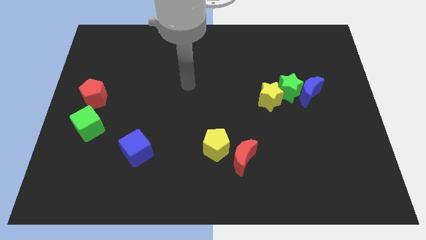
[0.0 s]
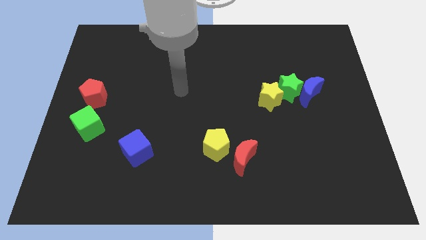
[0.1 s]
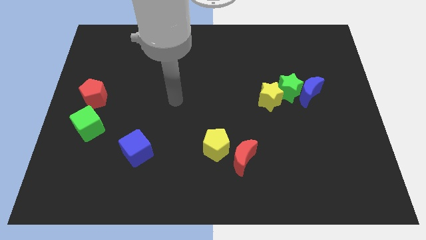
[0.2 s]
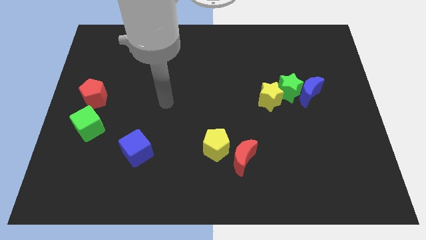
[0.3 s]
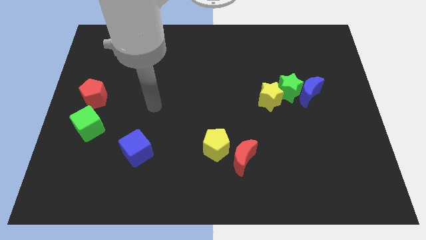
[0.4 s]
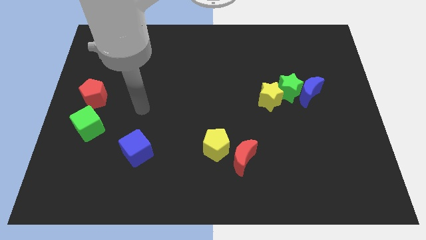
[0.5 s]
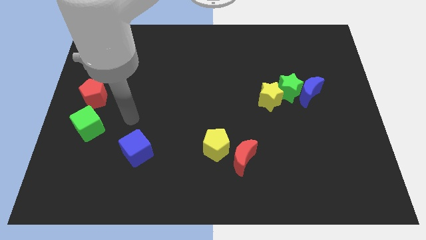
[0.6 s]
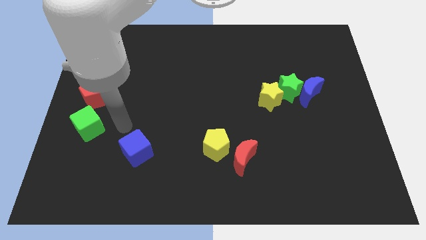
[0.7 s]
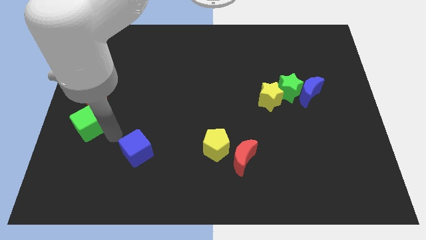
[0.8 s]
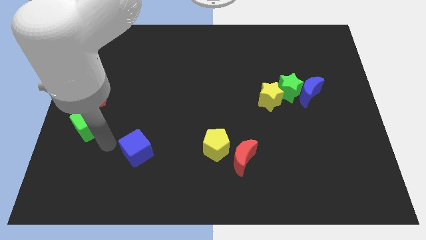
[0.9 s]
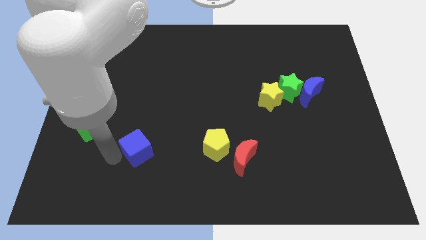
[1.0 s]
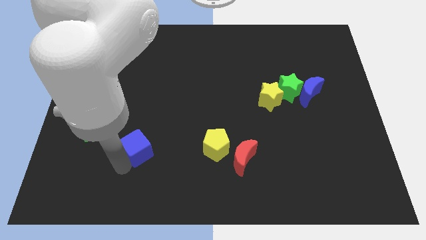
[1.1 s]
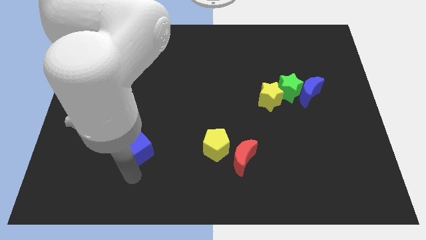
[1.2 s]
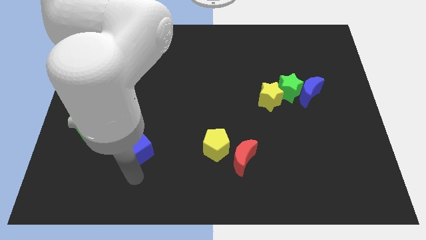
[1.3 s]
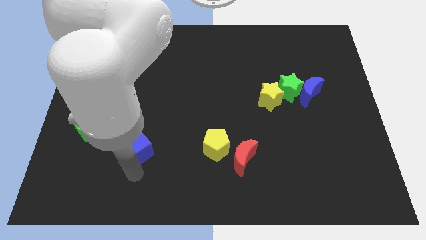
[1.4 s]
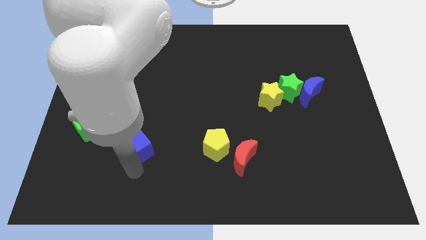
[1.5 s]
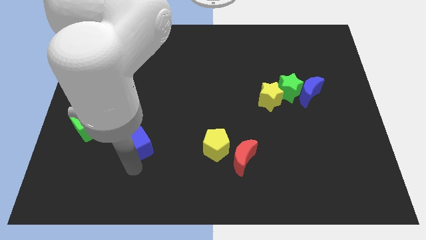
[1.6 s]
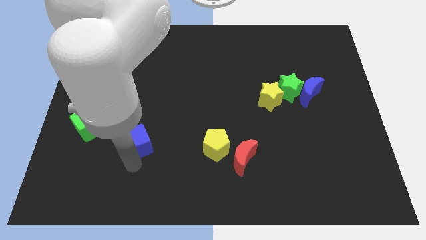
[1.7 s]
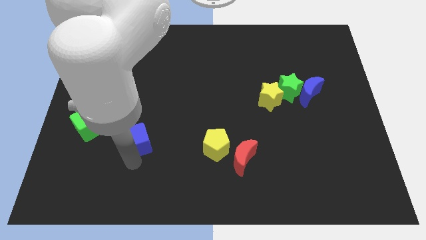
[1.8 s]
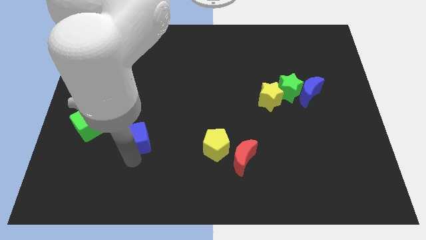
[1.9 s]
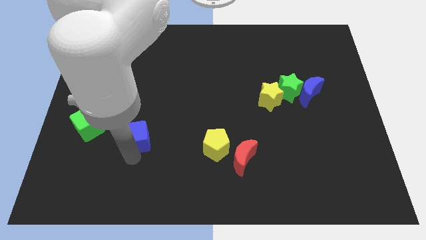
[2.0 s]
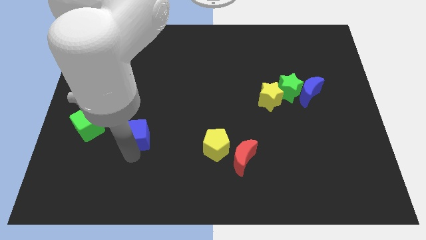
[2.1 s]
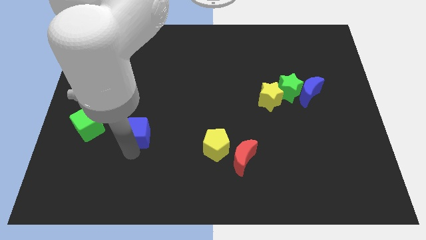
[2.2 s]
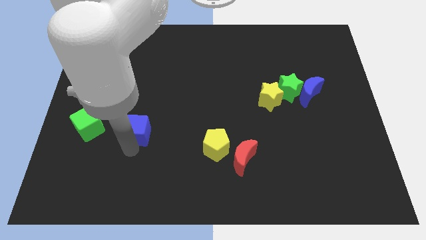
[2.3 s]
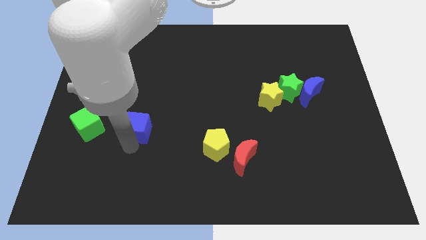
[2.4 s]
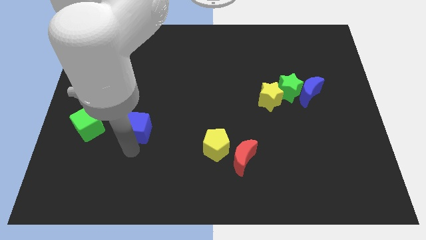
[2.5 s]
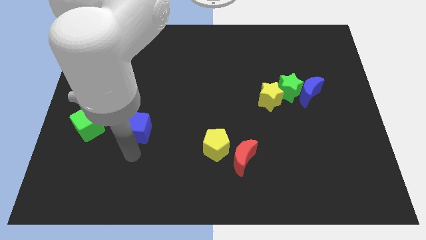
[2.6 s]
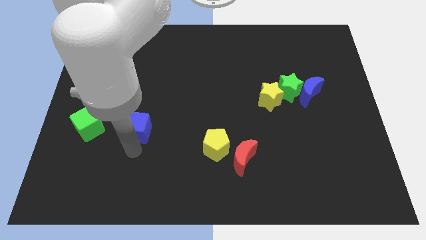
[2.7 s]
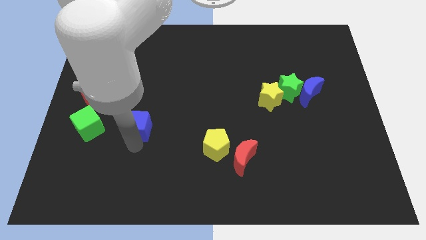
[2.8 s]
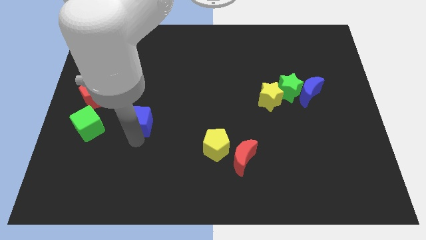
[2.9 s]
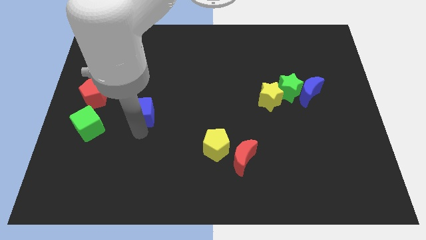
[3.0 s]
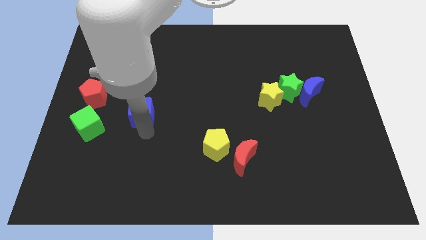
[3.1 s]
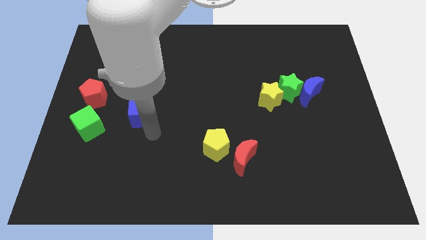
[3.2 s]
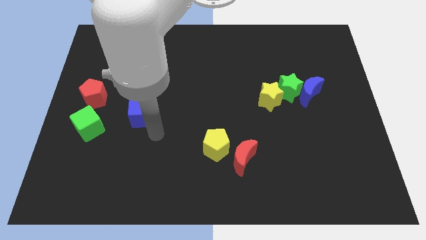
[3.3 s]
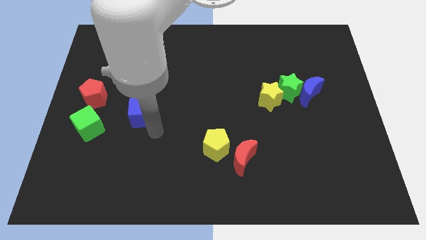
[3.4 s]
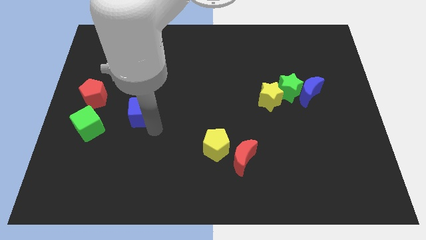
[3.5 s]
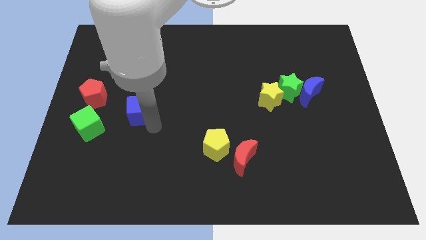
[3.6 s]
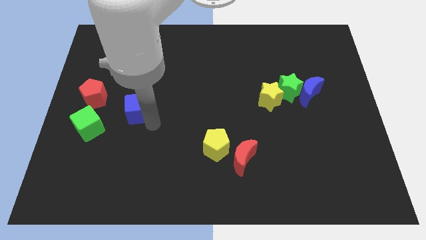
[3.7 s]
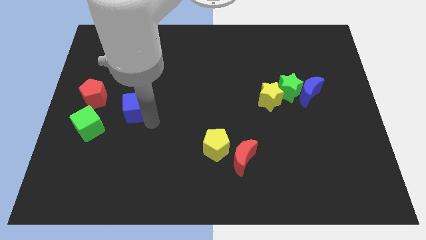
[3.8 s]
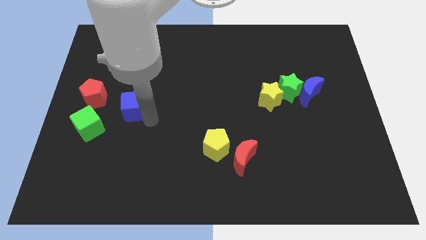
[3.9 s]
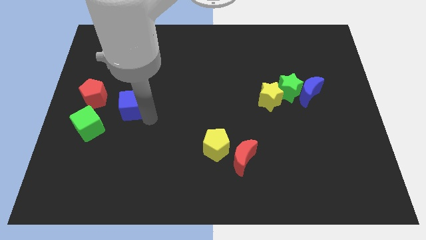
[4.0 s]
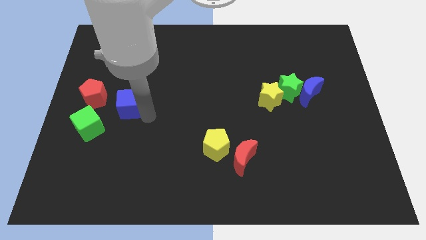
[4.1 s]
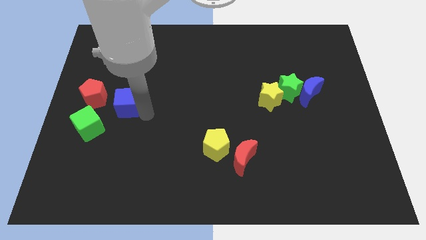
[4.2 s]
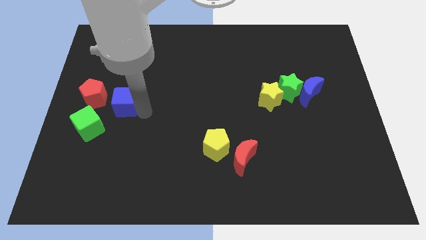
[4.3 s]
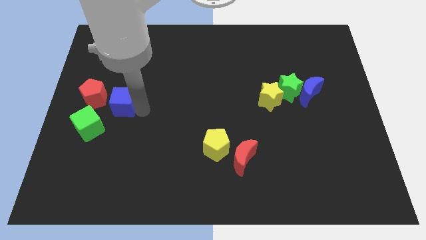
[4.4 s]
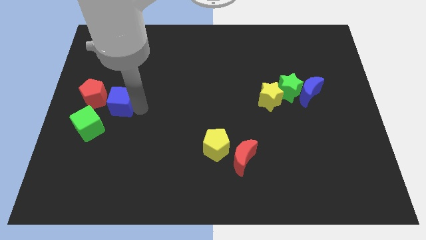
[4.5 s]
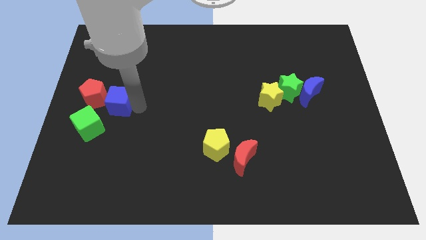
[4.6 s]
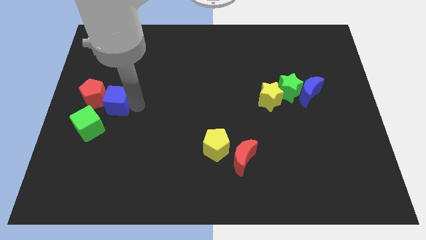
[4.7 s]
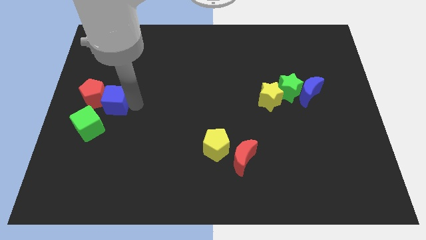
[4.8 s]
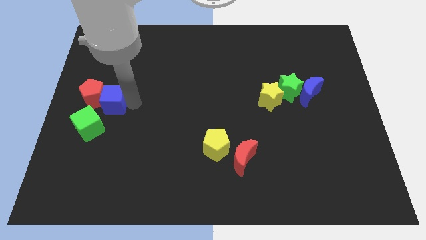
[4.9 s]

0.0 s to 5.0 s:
put the blue cube to the top of the green cube

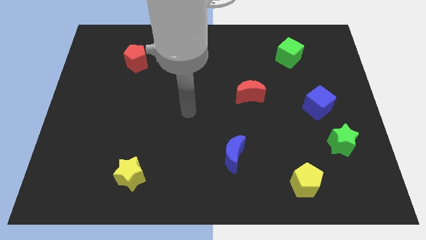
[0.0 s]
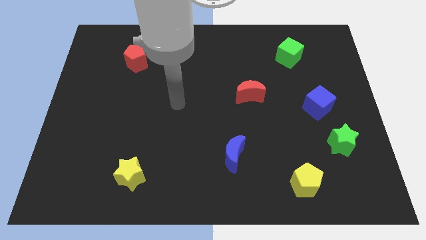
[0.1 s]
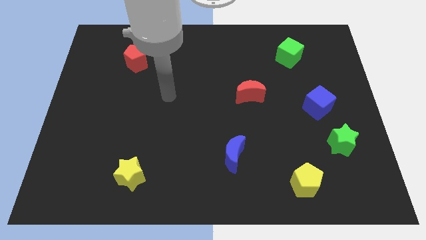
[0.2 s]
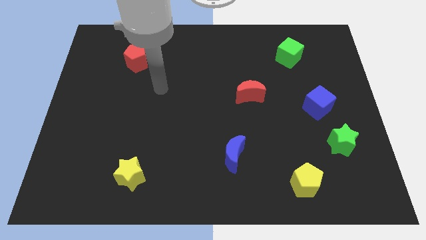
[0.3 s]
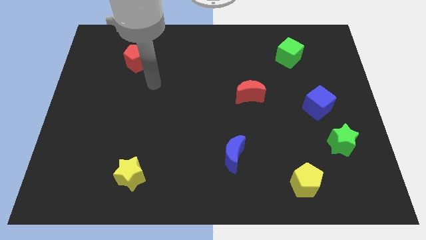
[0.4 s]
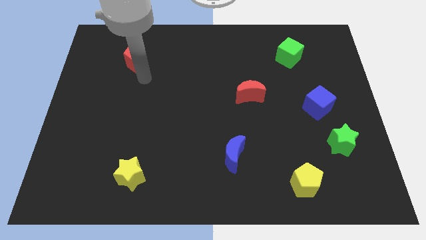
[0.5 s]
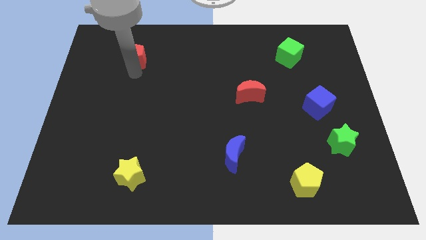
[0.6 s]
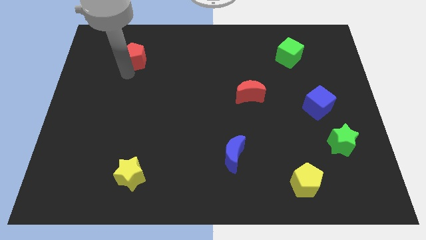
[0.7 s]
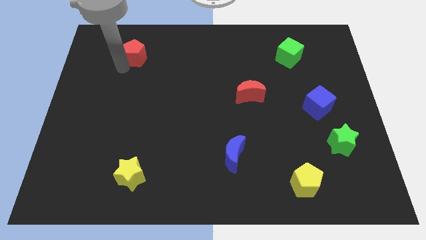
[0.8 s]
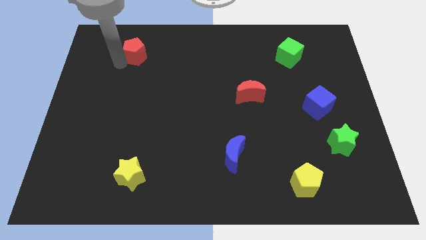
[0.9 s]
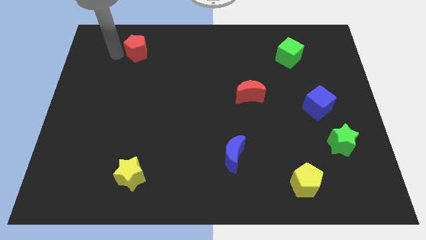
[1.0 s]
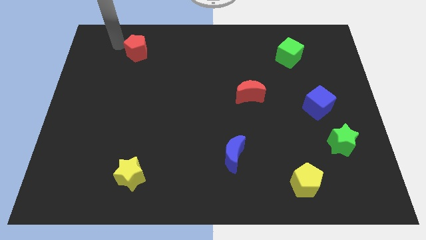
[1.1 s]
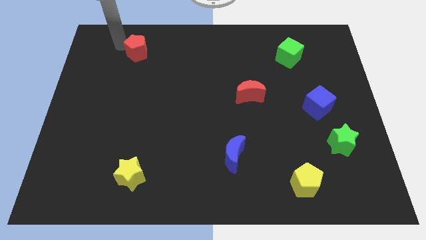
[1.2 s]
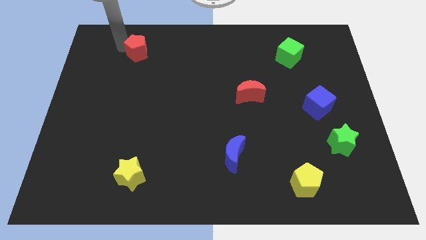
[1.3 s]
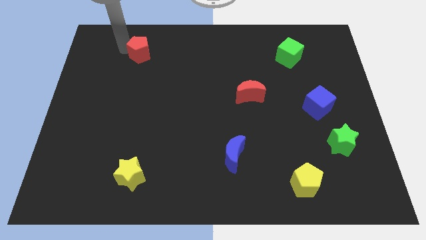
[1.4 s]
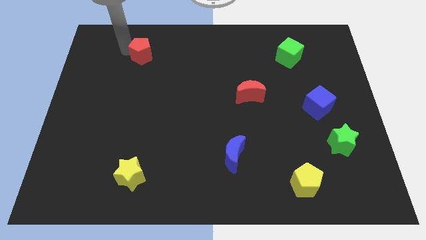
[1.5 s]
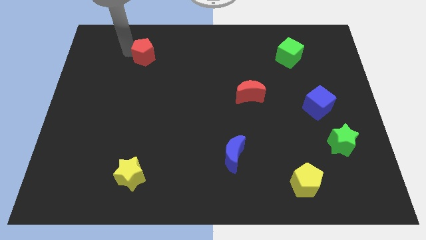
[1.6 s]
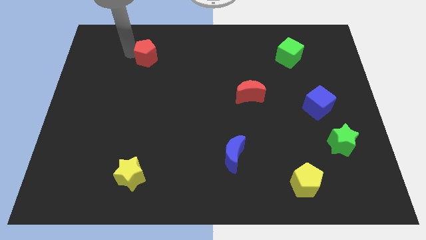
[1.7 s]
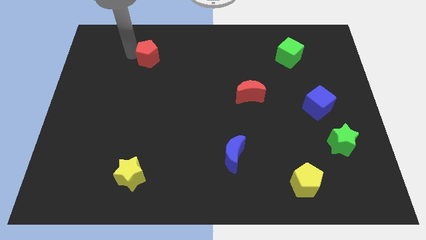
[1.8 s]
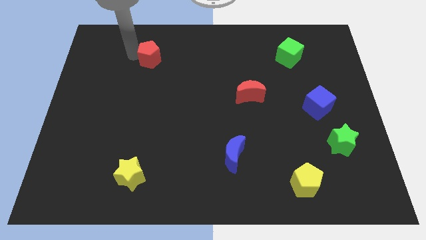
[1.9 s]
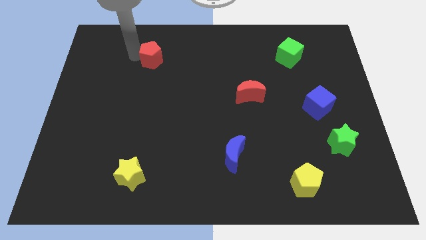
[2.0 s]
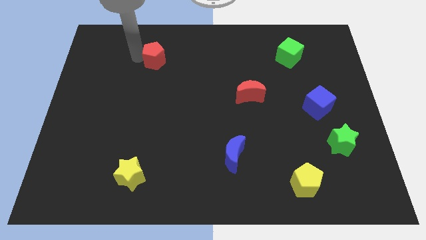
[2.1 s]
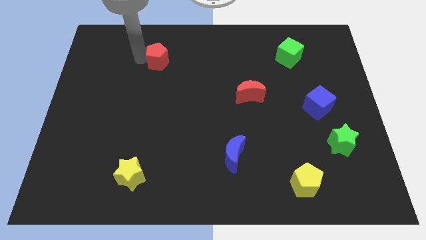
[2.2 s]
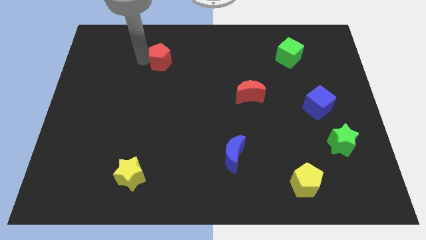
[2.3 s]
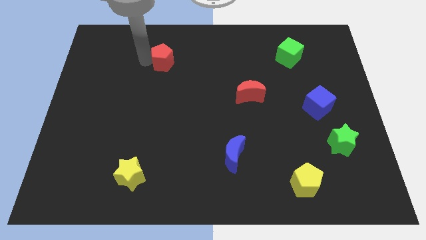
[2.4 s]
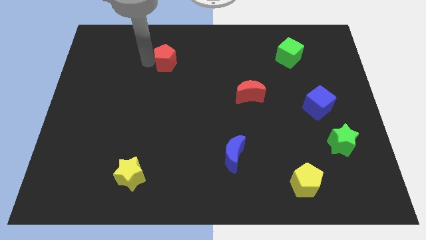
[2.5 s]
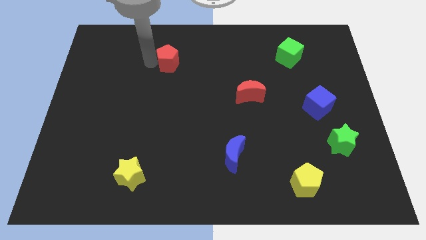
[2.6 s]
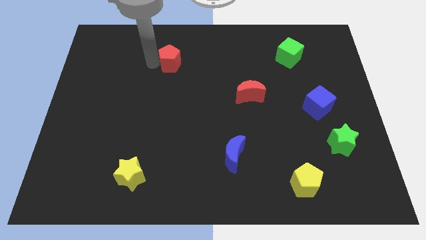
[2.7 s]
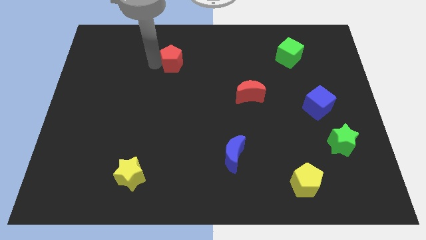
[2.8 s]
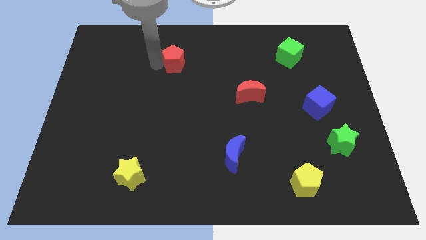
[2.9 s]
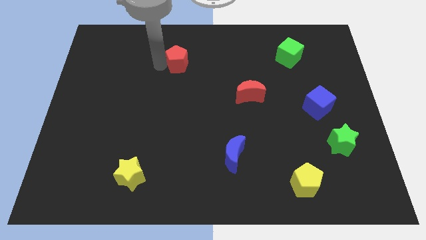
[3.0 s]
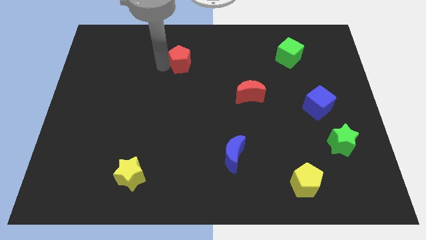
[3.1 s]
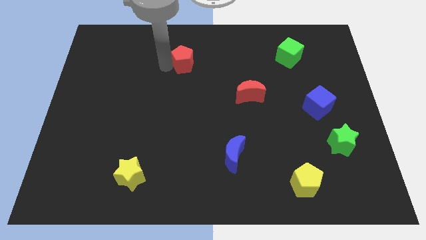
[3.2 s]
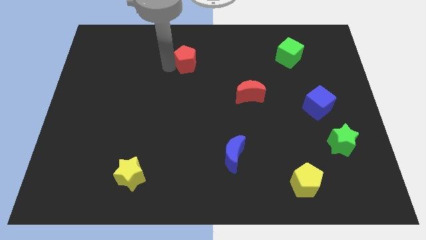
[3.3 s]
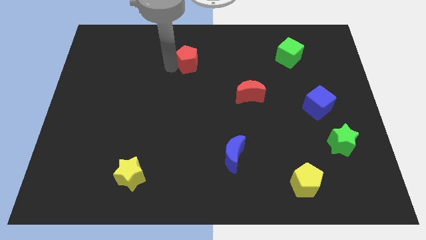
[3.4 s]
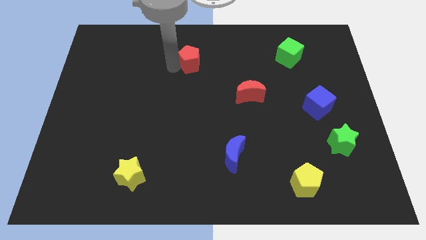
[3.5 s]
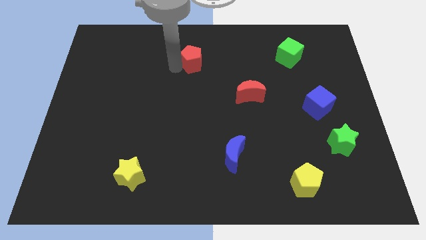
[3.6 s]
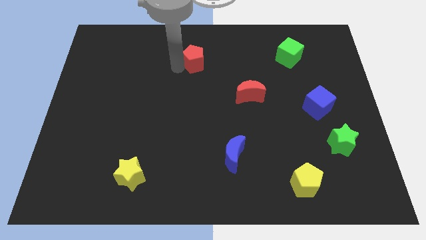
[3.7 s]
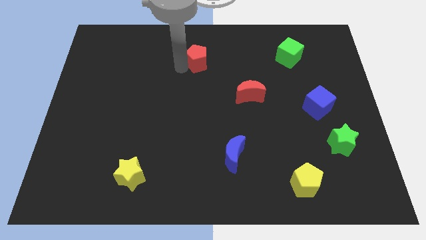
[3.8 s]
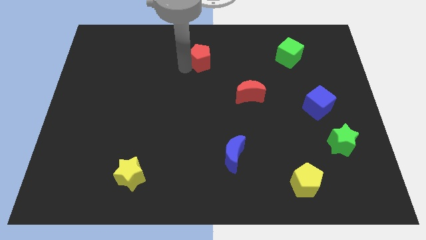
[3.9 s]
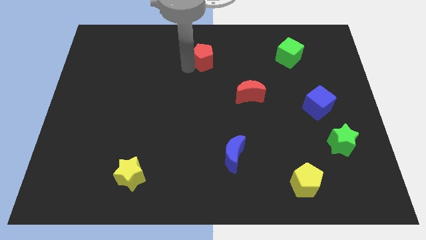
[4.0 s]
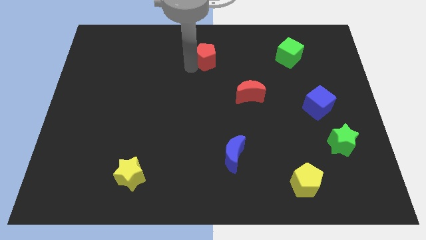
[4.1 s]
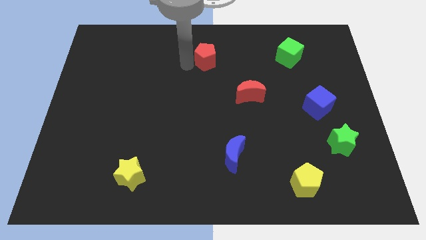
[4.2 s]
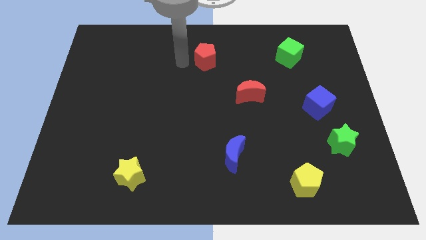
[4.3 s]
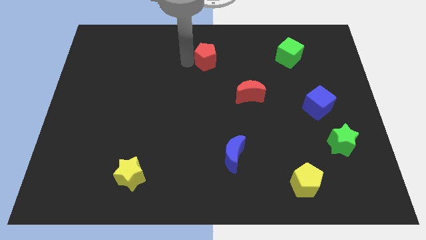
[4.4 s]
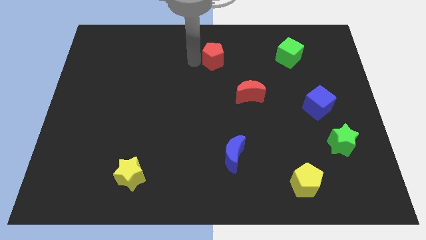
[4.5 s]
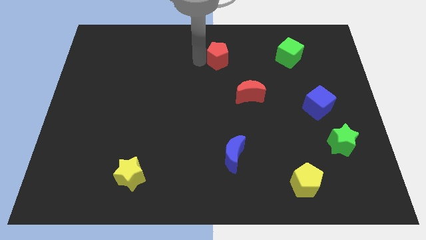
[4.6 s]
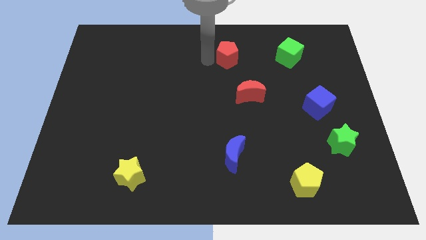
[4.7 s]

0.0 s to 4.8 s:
push the red pentagon left of the green cube
